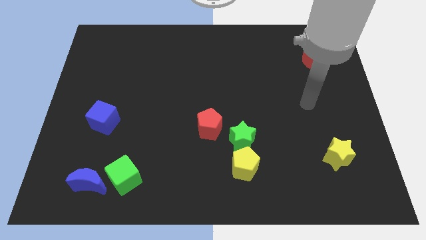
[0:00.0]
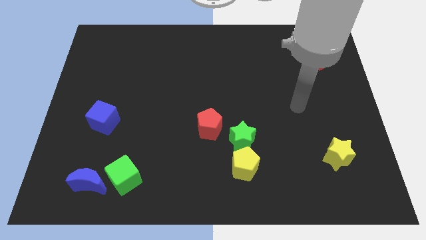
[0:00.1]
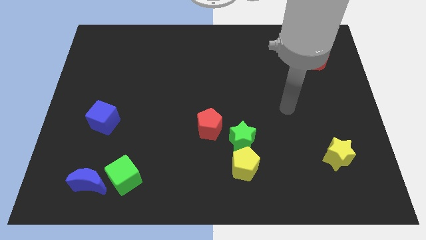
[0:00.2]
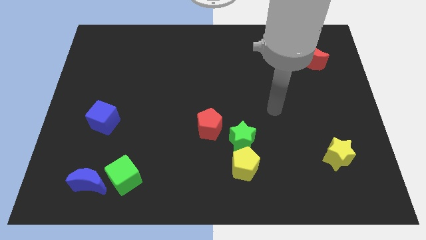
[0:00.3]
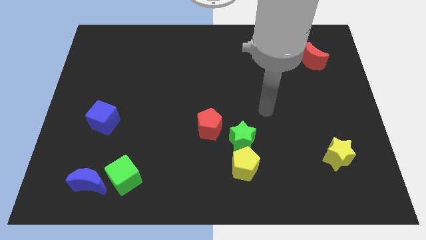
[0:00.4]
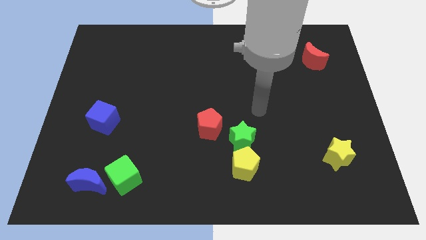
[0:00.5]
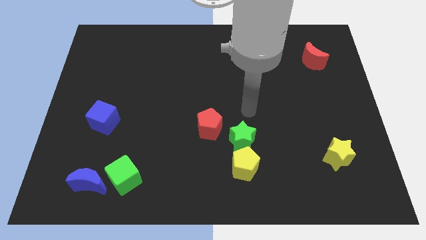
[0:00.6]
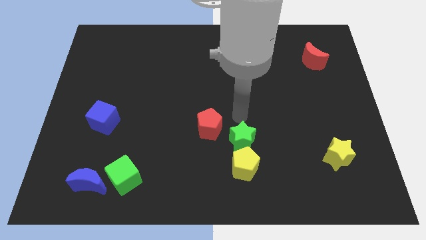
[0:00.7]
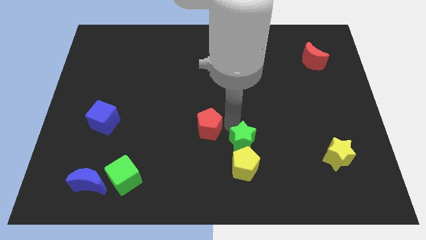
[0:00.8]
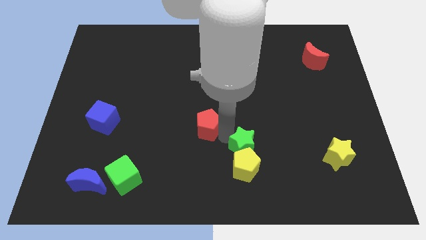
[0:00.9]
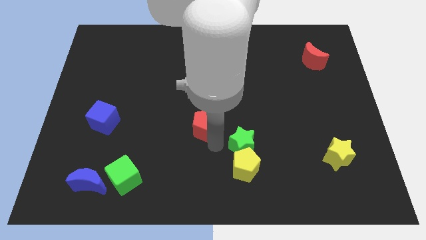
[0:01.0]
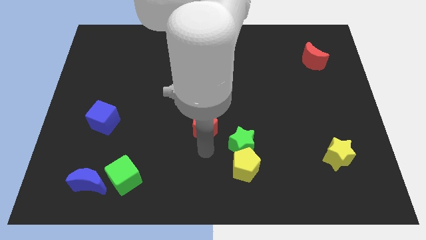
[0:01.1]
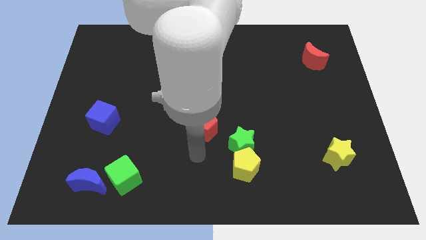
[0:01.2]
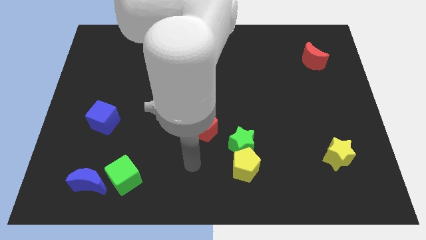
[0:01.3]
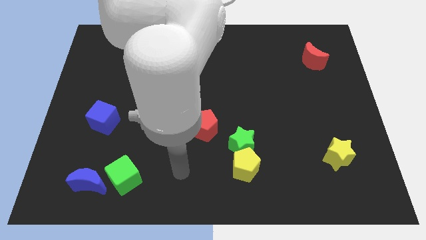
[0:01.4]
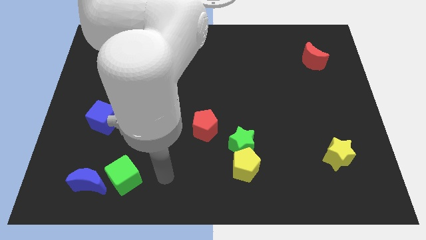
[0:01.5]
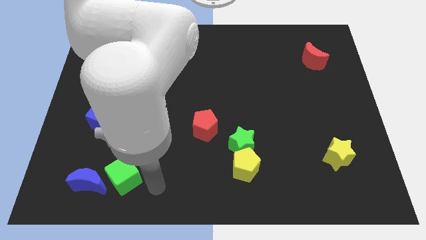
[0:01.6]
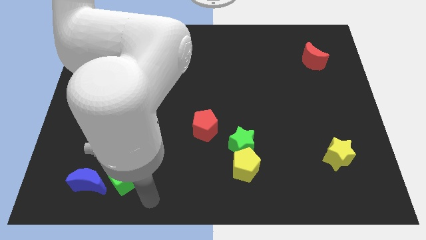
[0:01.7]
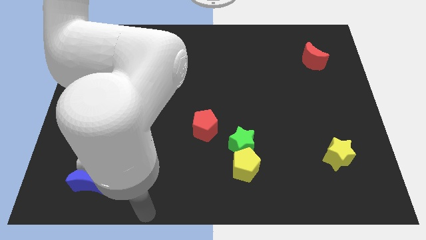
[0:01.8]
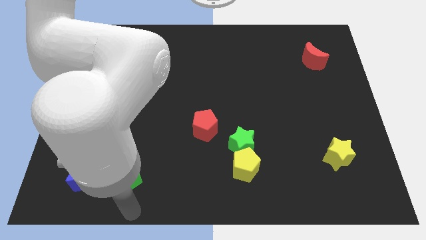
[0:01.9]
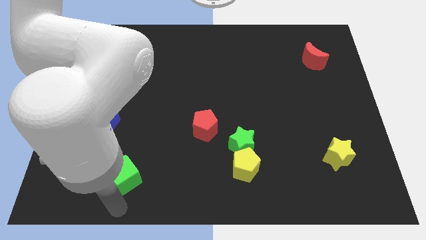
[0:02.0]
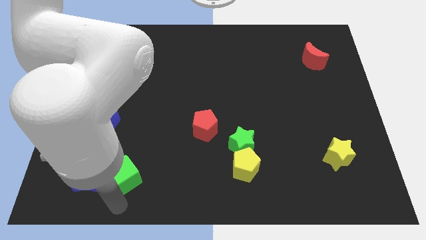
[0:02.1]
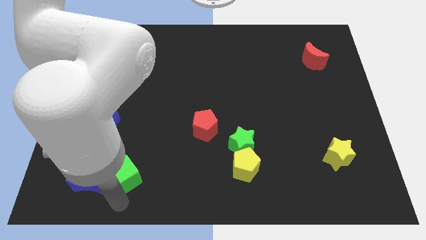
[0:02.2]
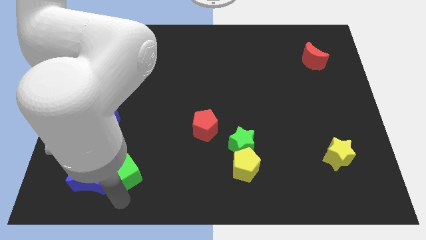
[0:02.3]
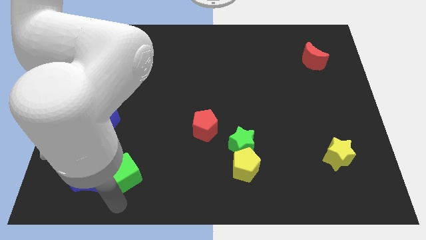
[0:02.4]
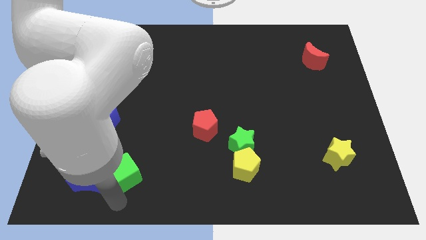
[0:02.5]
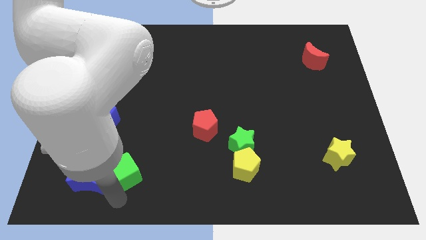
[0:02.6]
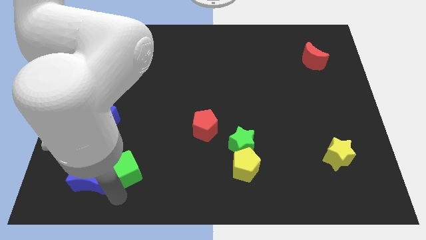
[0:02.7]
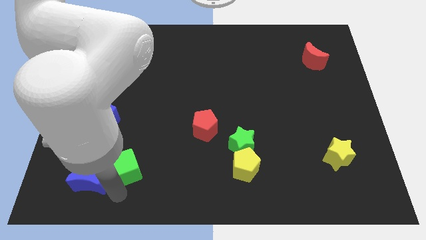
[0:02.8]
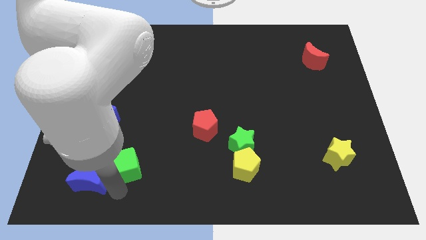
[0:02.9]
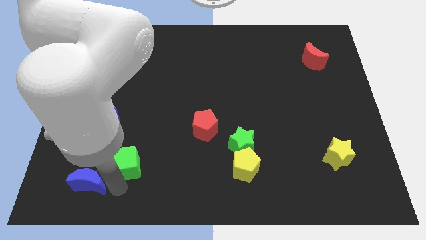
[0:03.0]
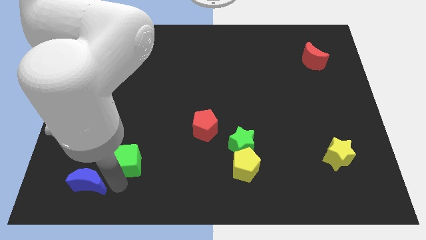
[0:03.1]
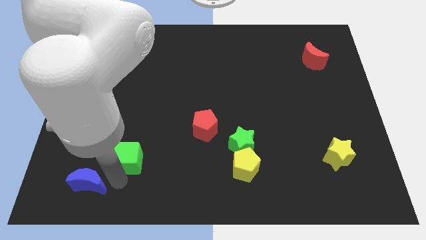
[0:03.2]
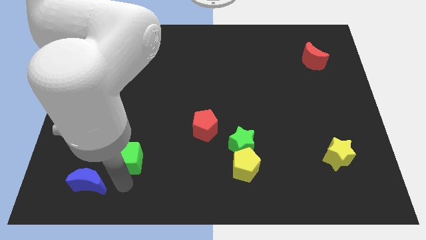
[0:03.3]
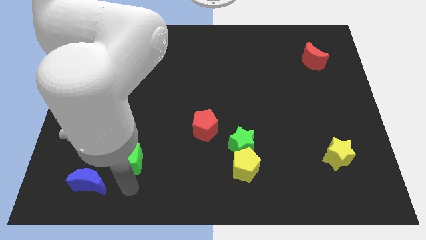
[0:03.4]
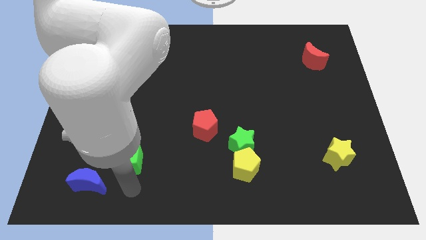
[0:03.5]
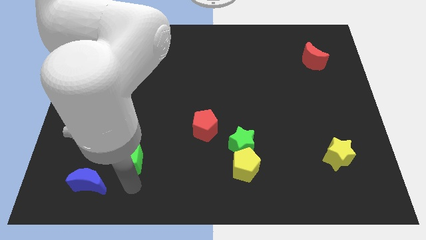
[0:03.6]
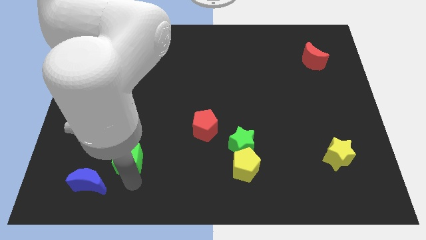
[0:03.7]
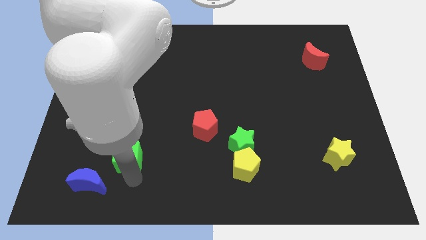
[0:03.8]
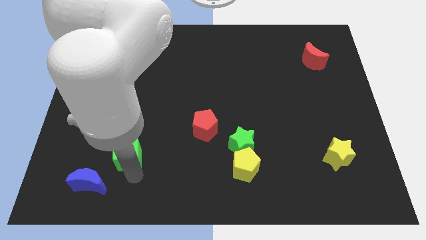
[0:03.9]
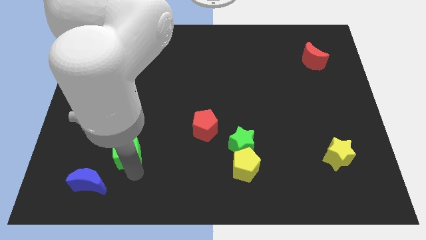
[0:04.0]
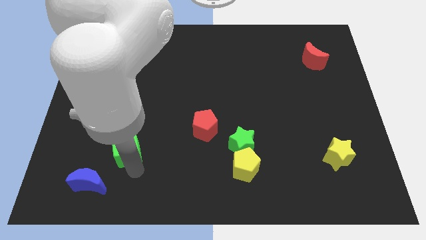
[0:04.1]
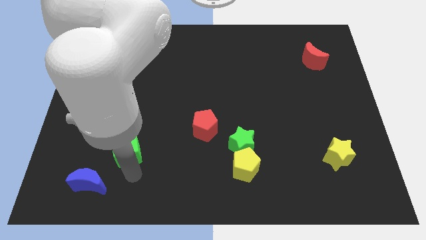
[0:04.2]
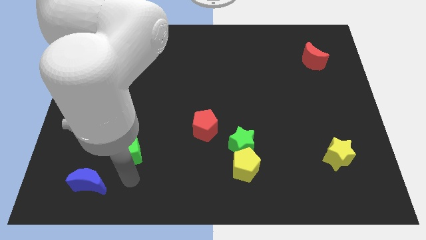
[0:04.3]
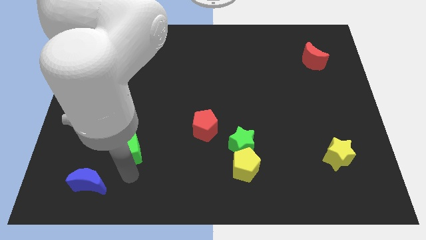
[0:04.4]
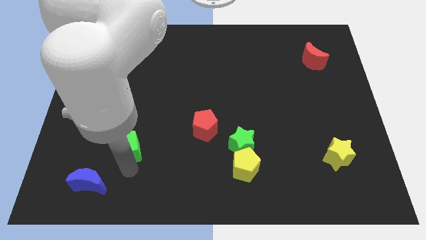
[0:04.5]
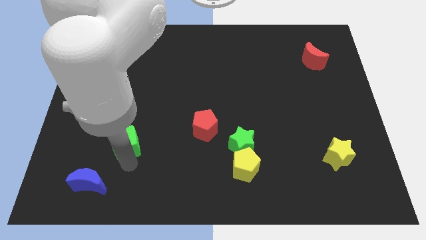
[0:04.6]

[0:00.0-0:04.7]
move the green cube upwards a bit

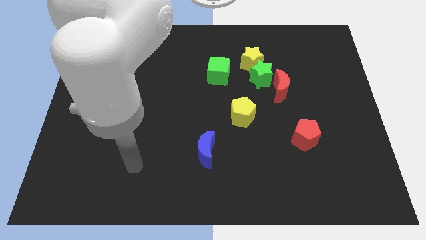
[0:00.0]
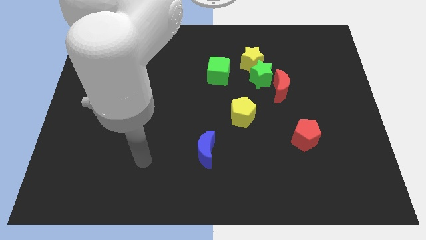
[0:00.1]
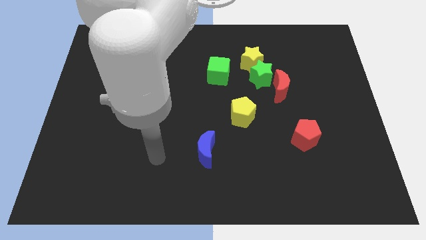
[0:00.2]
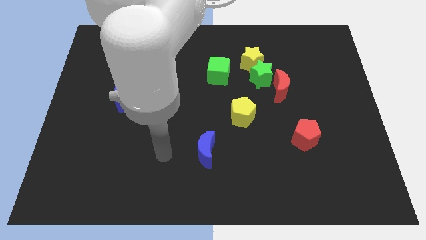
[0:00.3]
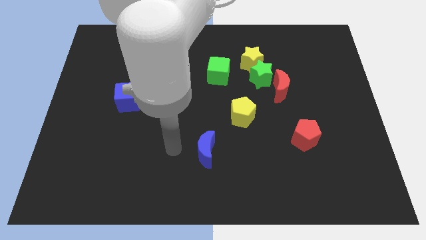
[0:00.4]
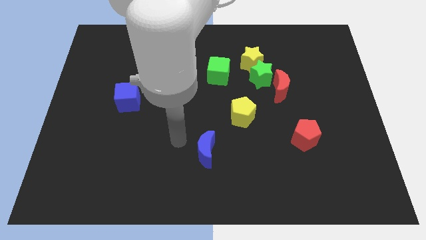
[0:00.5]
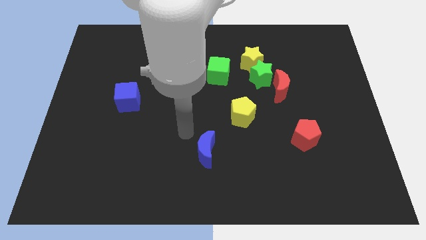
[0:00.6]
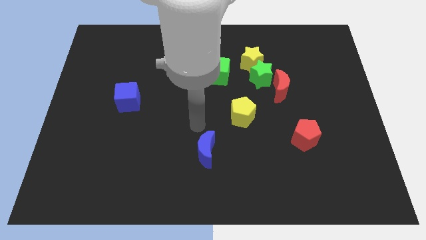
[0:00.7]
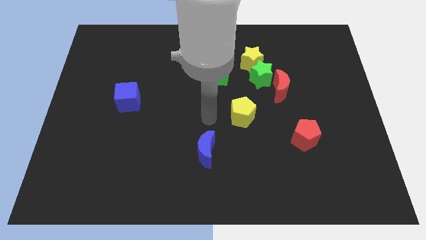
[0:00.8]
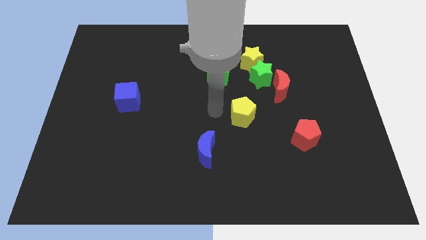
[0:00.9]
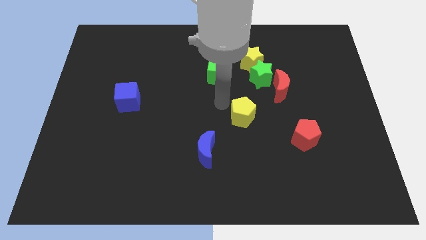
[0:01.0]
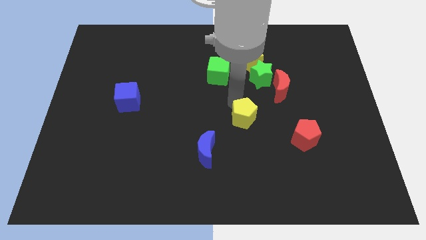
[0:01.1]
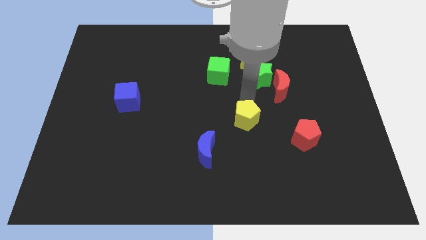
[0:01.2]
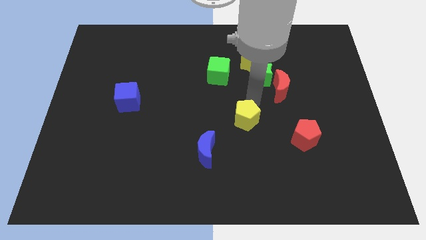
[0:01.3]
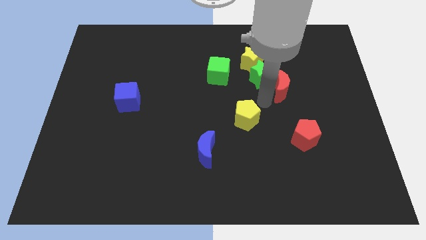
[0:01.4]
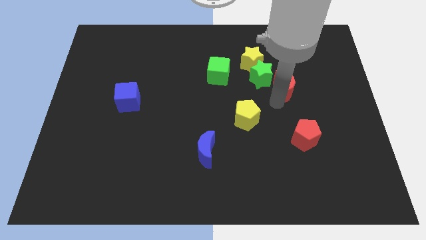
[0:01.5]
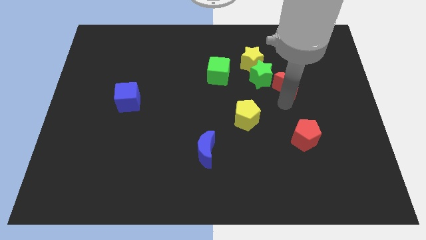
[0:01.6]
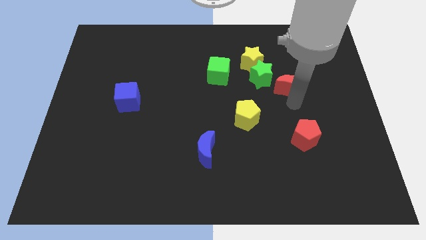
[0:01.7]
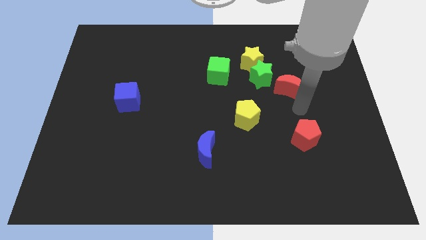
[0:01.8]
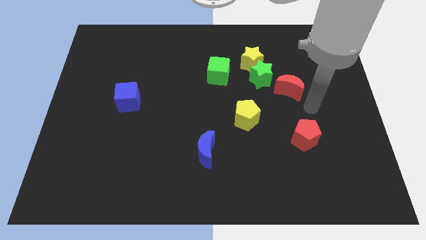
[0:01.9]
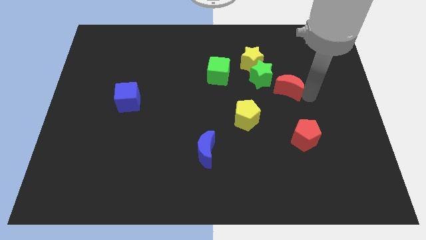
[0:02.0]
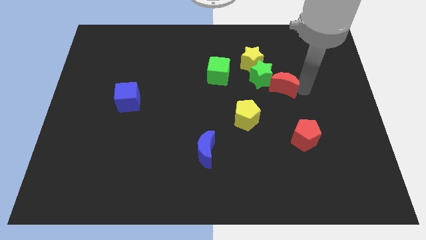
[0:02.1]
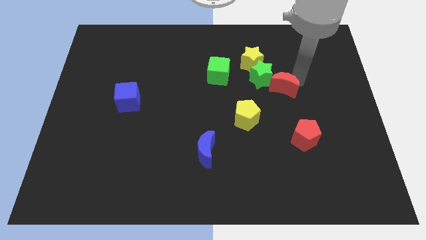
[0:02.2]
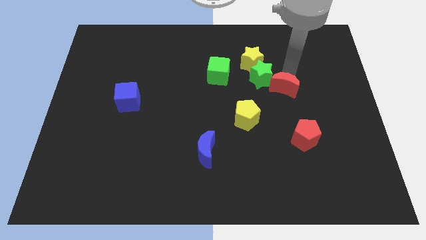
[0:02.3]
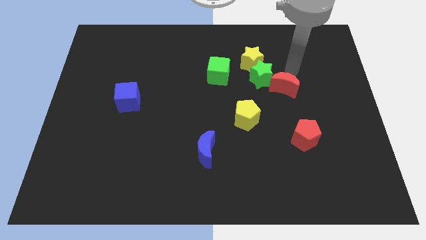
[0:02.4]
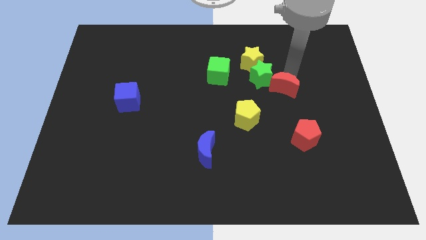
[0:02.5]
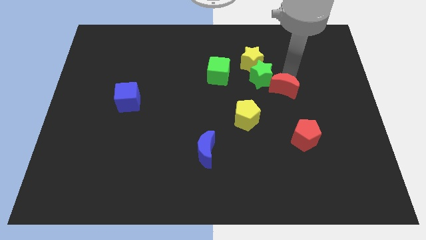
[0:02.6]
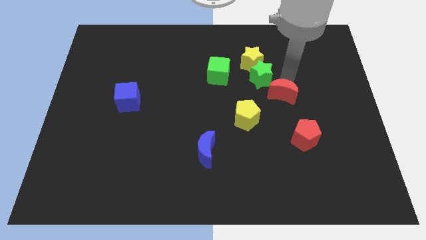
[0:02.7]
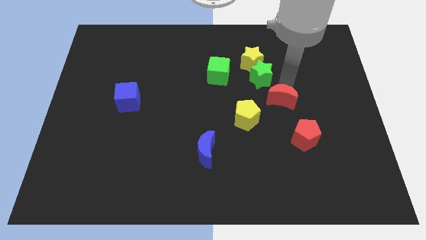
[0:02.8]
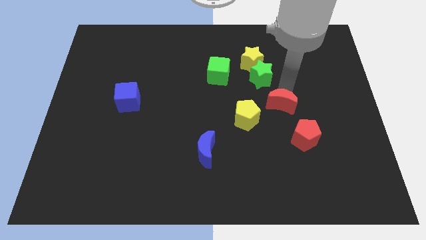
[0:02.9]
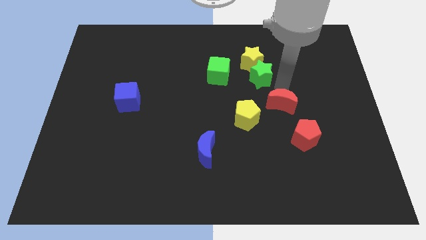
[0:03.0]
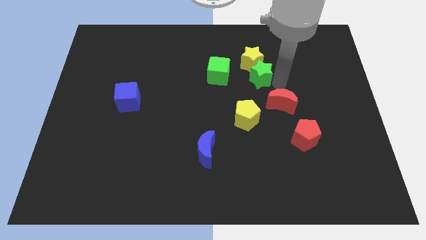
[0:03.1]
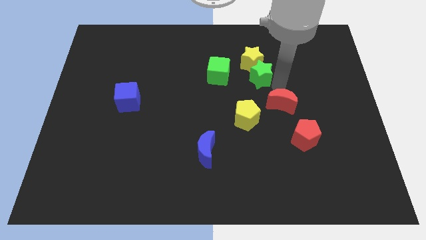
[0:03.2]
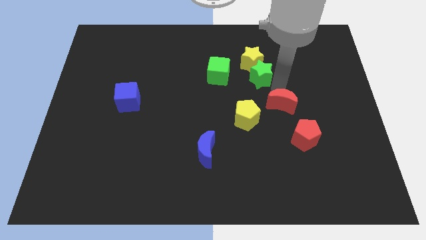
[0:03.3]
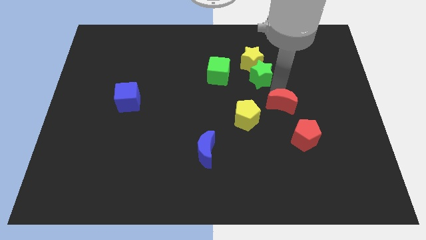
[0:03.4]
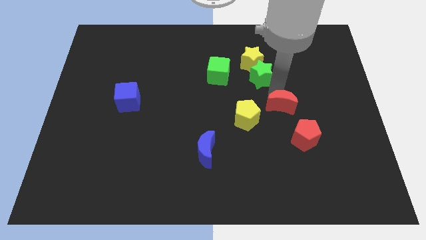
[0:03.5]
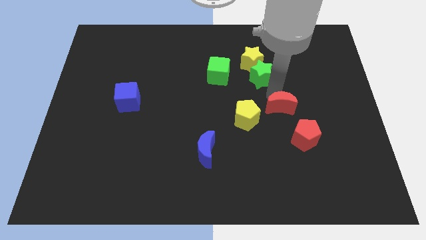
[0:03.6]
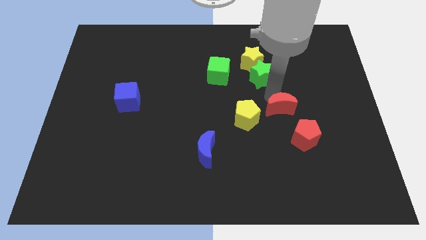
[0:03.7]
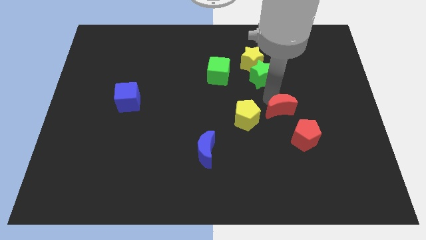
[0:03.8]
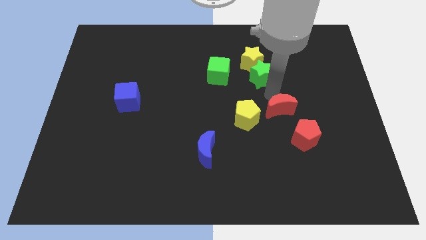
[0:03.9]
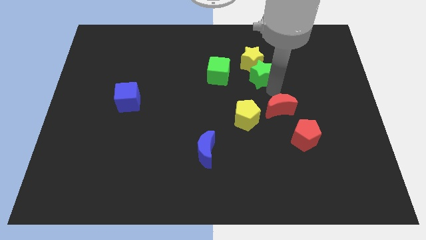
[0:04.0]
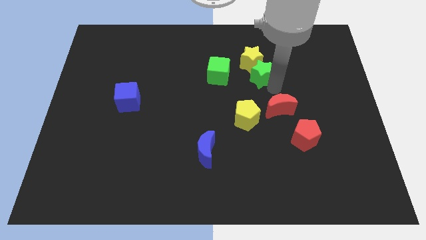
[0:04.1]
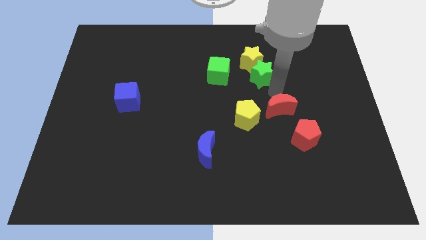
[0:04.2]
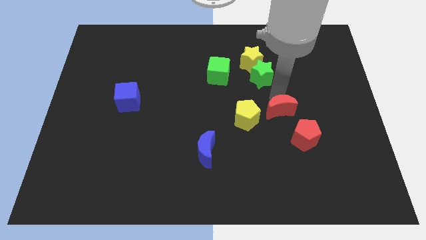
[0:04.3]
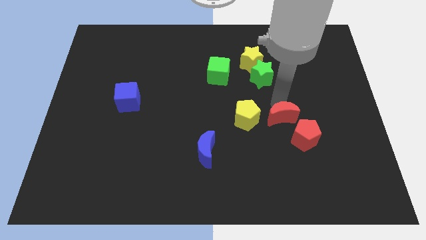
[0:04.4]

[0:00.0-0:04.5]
move the red moon downwards slightly
